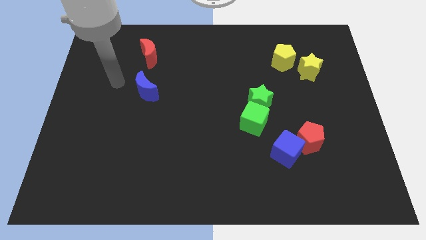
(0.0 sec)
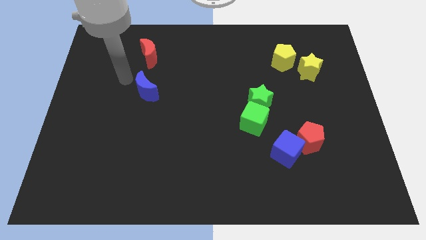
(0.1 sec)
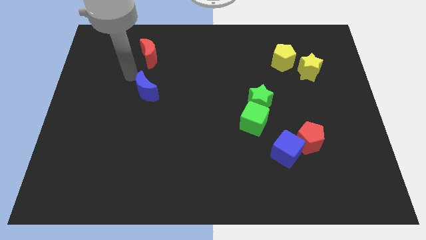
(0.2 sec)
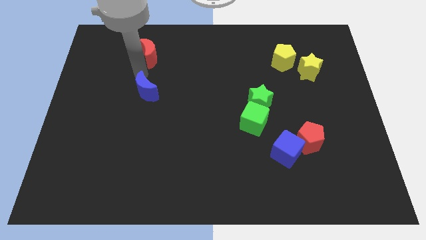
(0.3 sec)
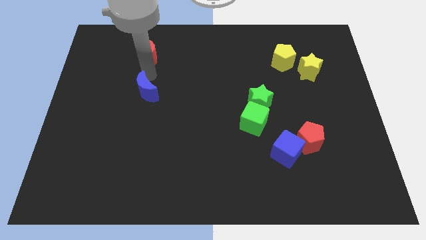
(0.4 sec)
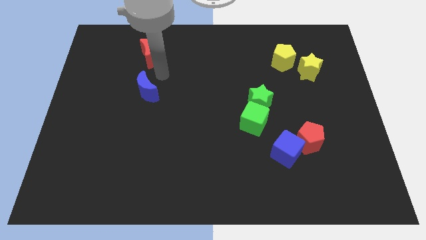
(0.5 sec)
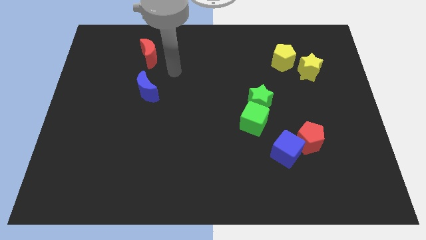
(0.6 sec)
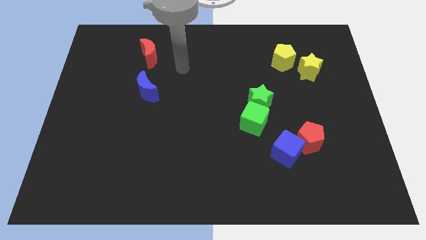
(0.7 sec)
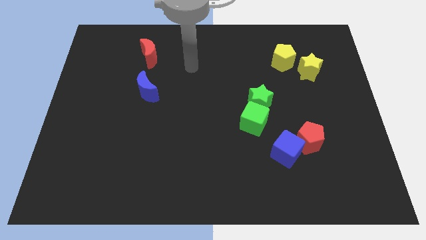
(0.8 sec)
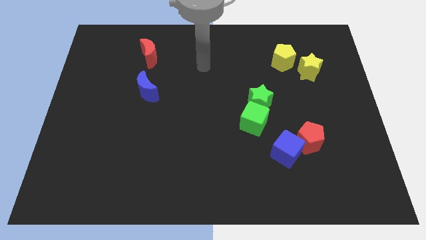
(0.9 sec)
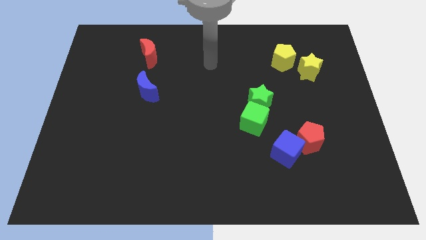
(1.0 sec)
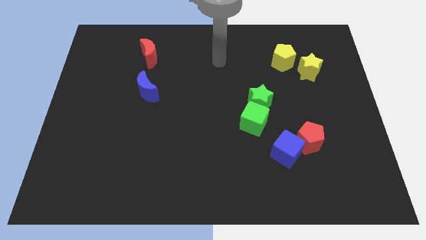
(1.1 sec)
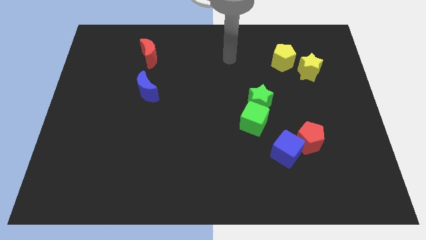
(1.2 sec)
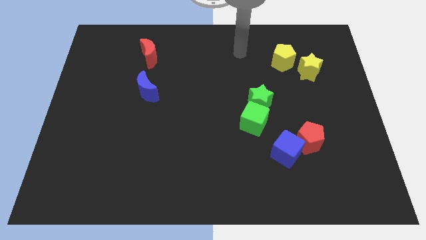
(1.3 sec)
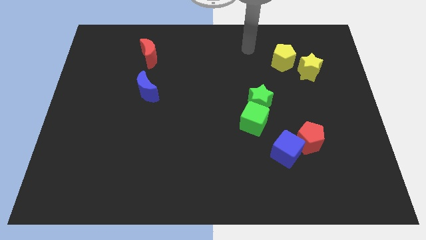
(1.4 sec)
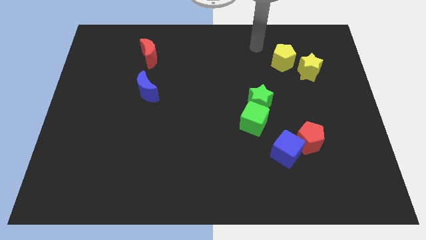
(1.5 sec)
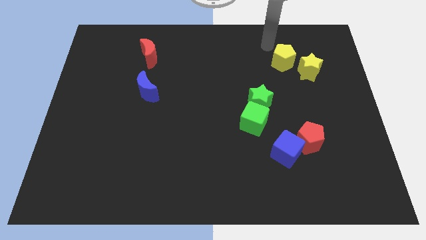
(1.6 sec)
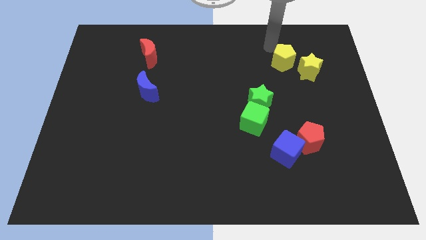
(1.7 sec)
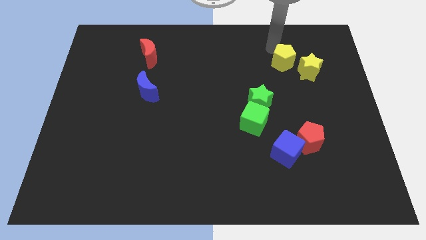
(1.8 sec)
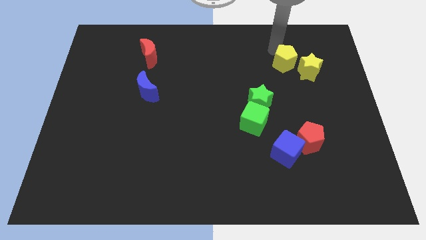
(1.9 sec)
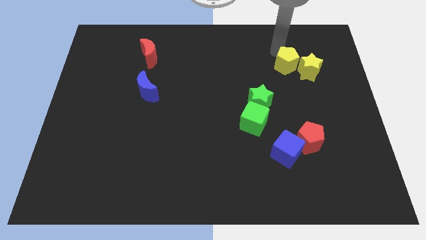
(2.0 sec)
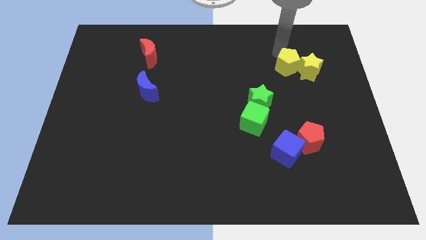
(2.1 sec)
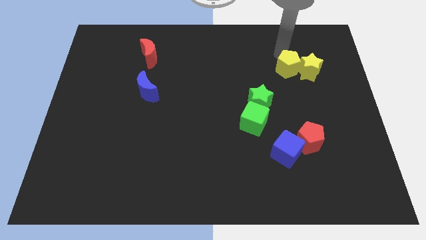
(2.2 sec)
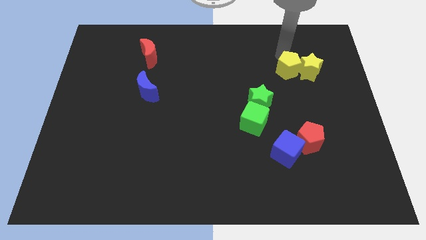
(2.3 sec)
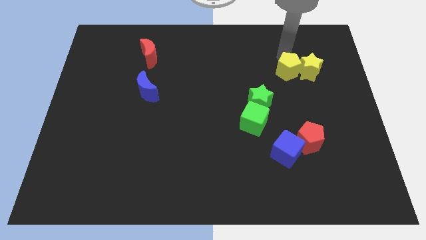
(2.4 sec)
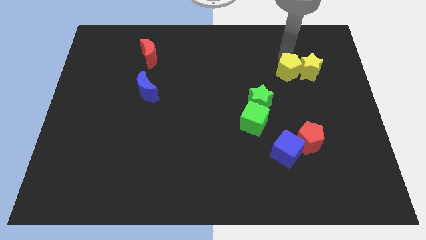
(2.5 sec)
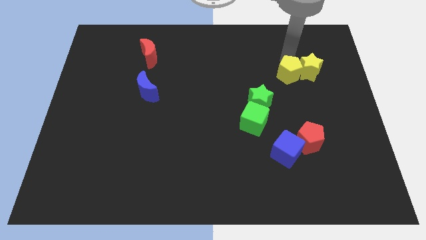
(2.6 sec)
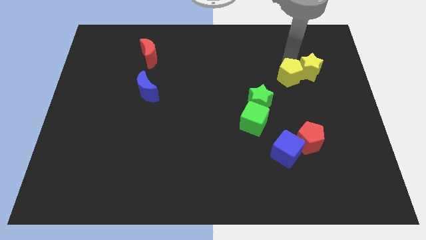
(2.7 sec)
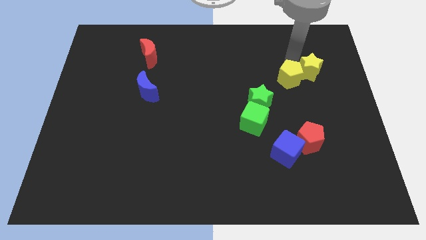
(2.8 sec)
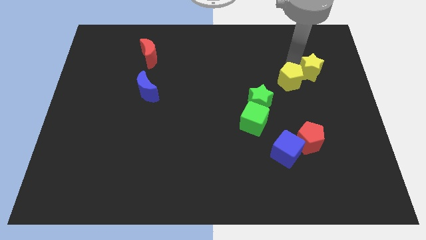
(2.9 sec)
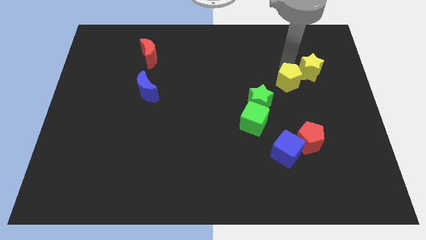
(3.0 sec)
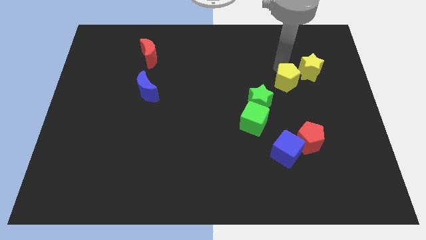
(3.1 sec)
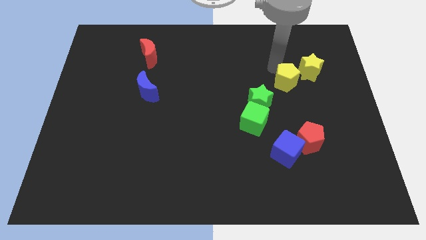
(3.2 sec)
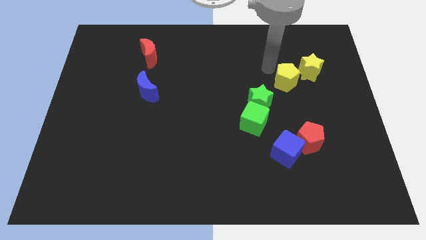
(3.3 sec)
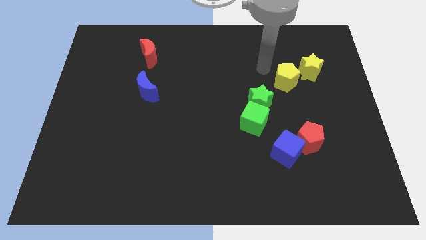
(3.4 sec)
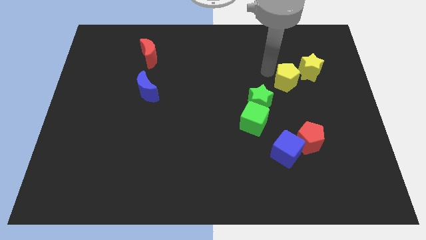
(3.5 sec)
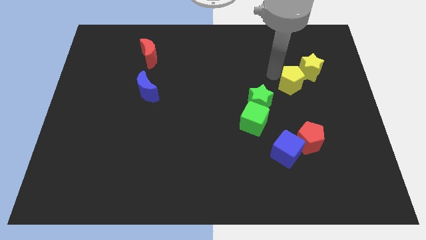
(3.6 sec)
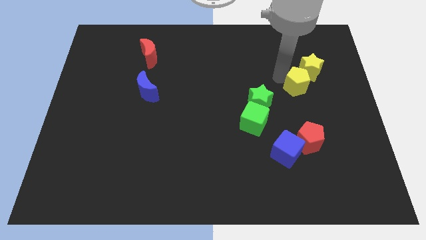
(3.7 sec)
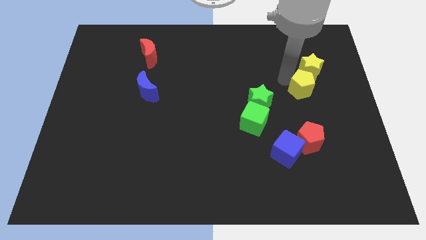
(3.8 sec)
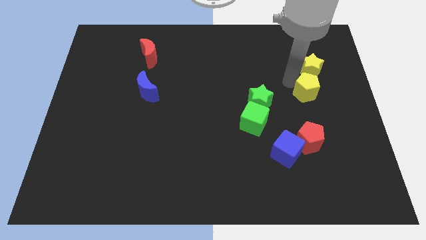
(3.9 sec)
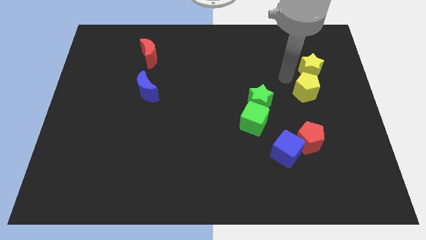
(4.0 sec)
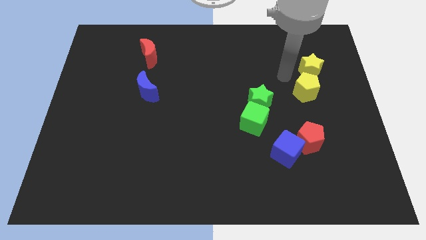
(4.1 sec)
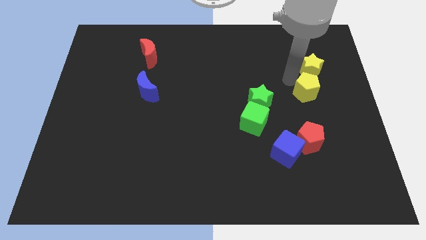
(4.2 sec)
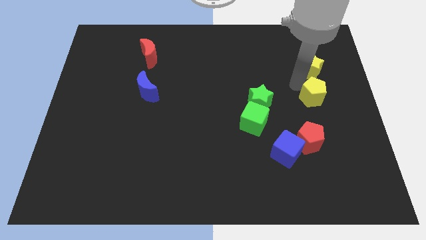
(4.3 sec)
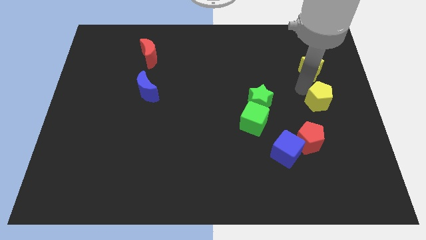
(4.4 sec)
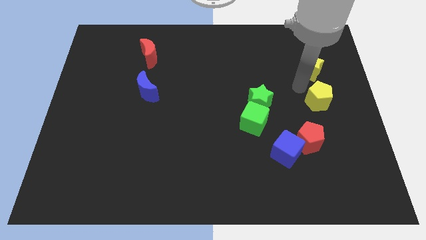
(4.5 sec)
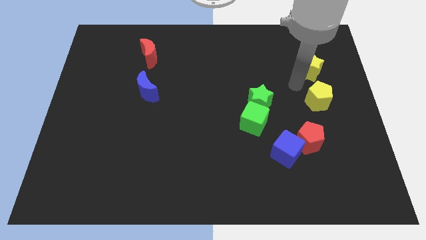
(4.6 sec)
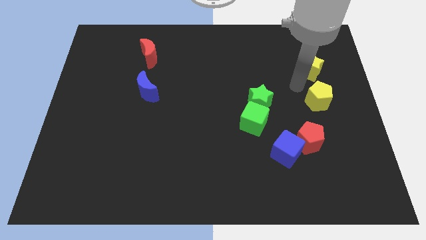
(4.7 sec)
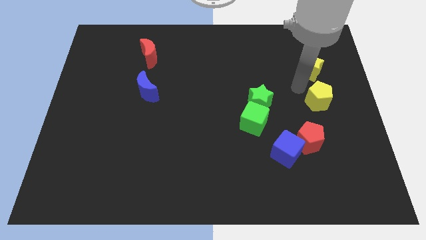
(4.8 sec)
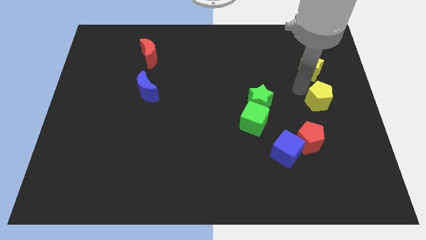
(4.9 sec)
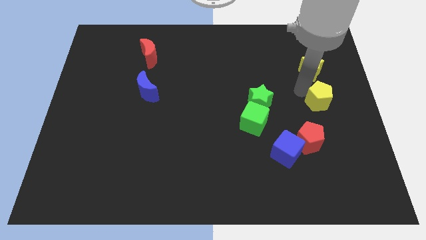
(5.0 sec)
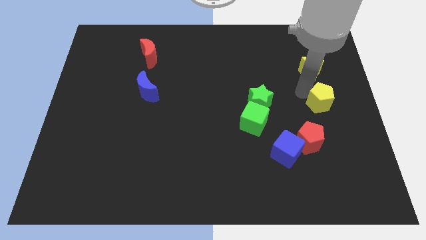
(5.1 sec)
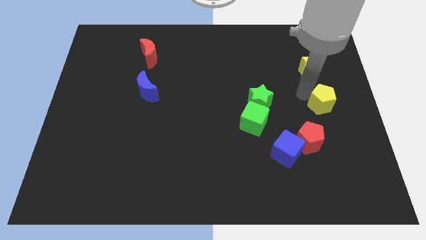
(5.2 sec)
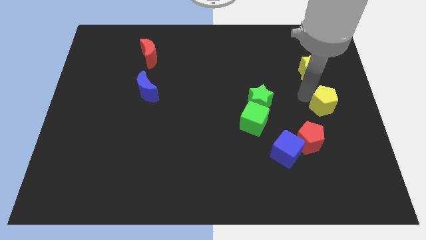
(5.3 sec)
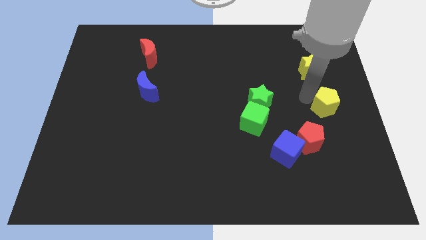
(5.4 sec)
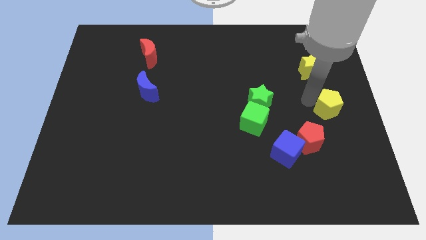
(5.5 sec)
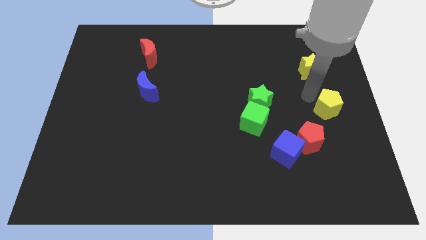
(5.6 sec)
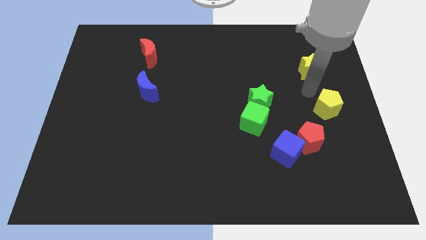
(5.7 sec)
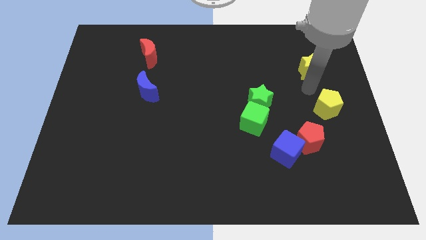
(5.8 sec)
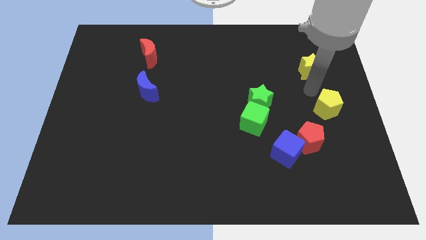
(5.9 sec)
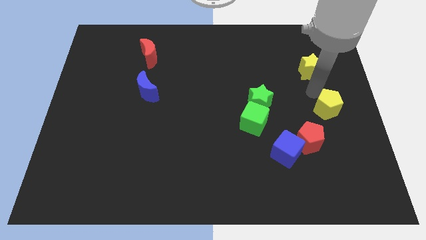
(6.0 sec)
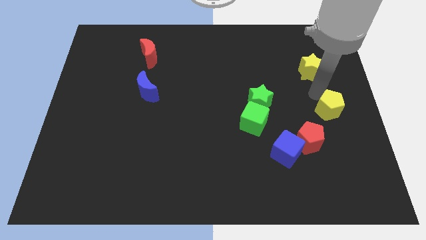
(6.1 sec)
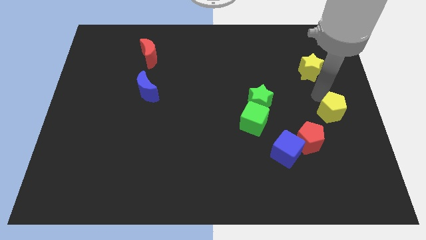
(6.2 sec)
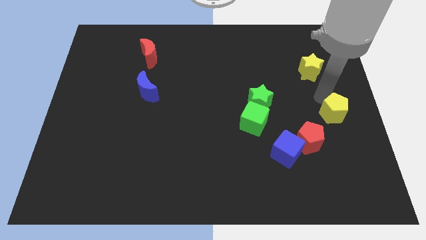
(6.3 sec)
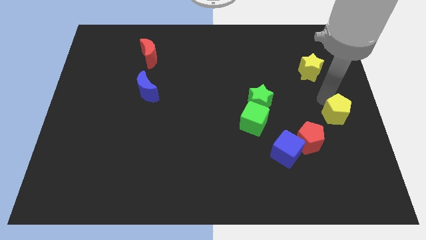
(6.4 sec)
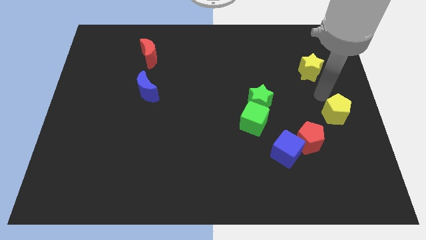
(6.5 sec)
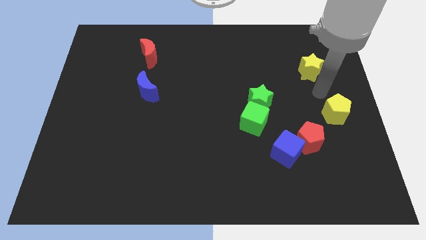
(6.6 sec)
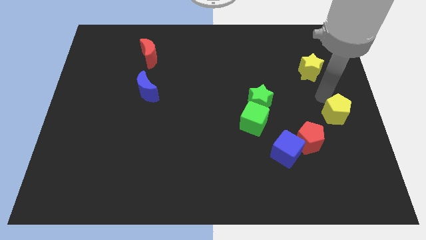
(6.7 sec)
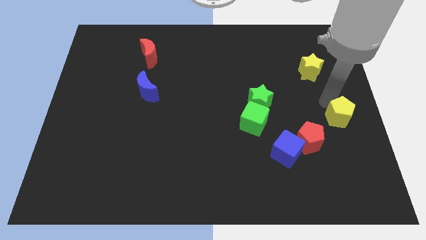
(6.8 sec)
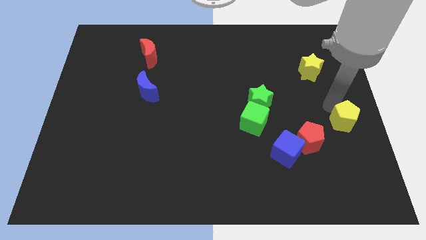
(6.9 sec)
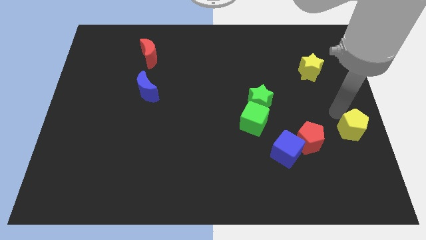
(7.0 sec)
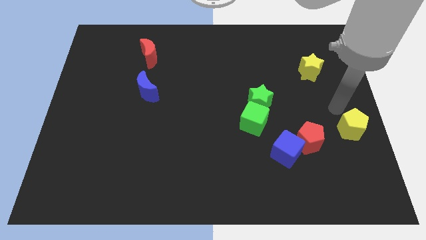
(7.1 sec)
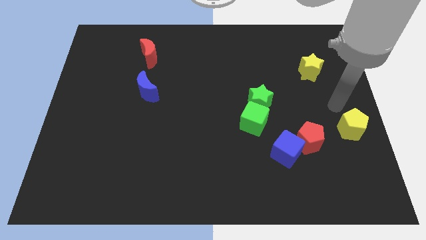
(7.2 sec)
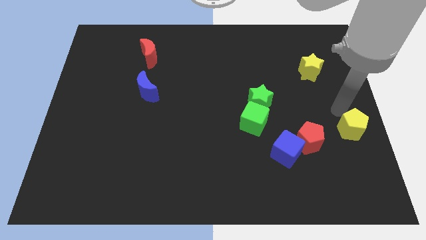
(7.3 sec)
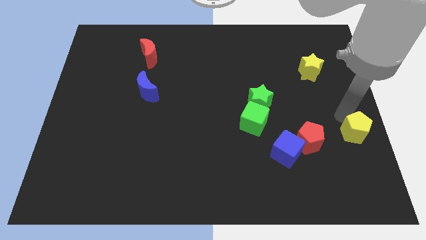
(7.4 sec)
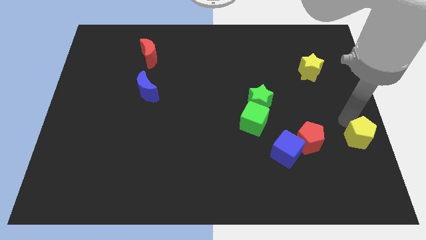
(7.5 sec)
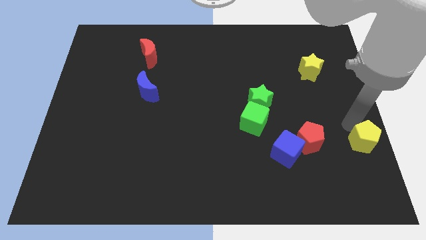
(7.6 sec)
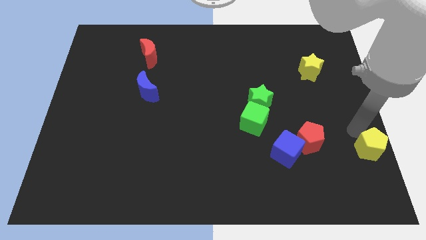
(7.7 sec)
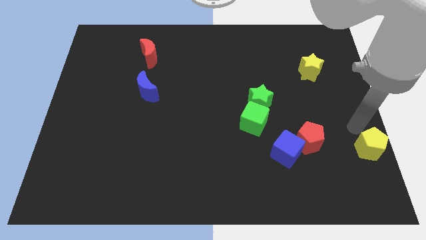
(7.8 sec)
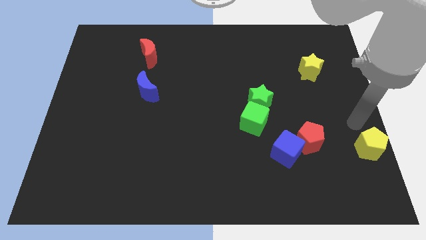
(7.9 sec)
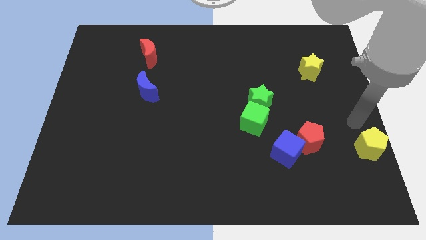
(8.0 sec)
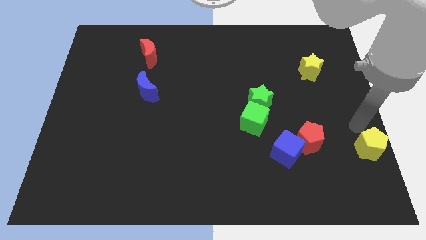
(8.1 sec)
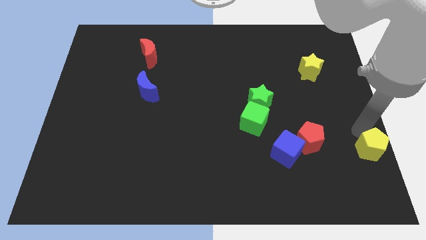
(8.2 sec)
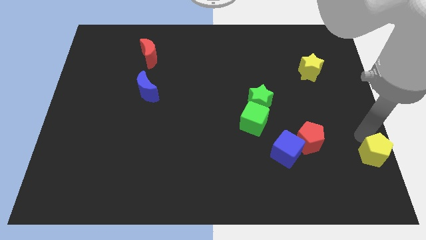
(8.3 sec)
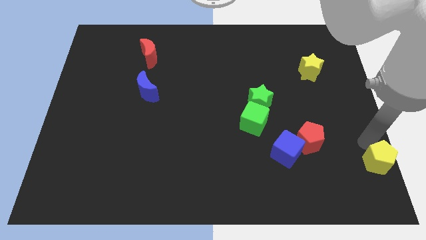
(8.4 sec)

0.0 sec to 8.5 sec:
move the yellow pentagon to the bottom right corner
